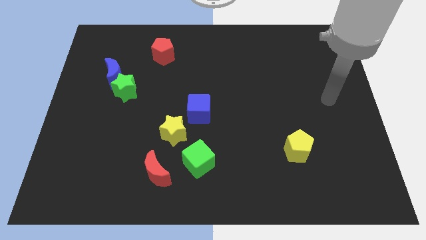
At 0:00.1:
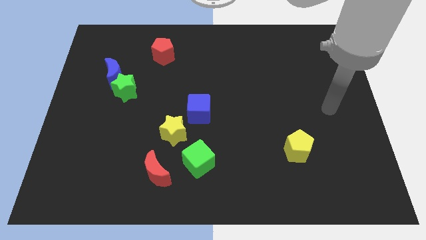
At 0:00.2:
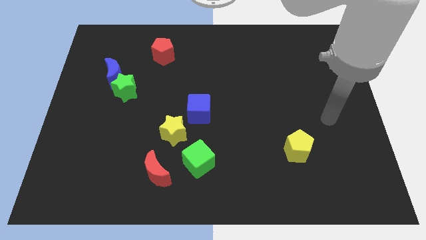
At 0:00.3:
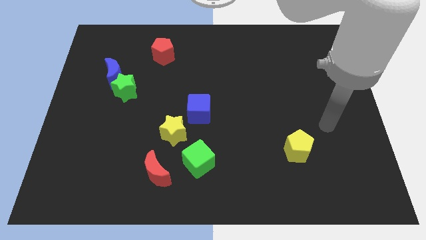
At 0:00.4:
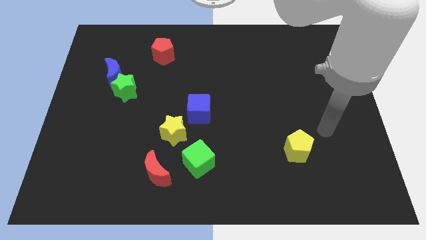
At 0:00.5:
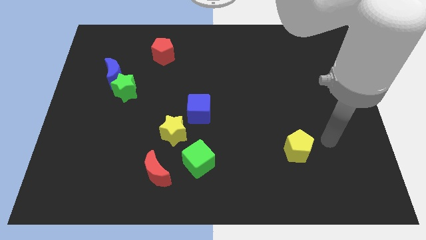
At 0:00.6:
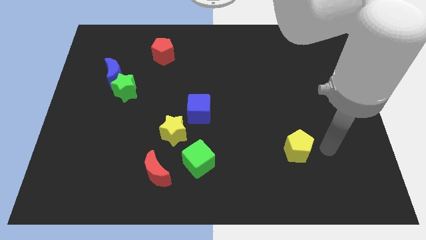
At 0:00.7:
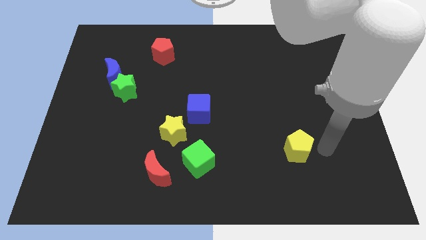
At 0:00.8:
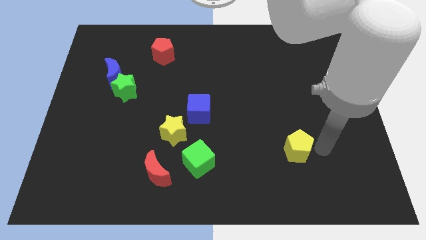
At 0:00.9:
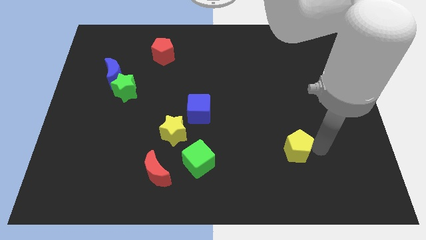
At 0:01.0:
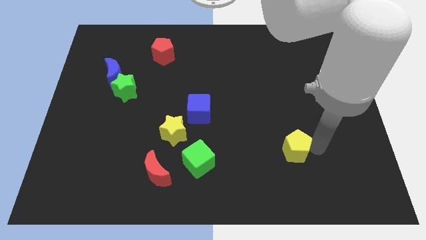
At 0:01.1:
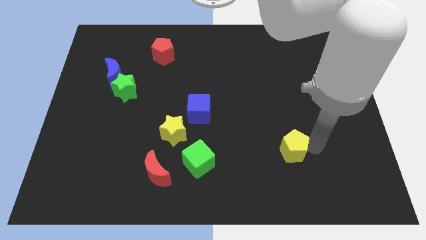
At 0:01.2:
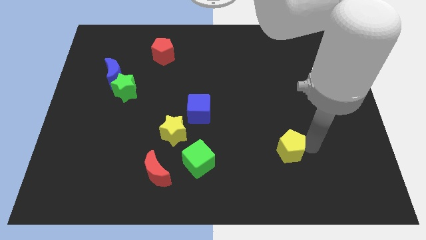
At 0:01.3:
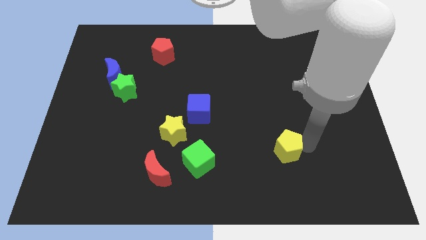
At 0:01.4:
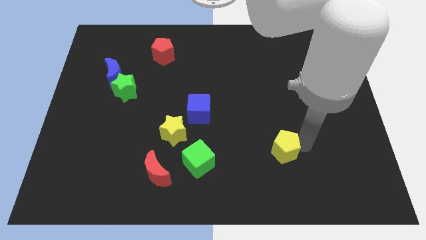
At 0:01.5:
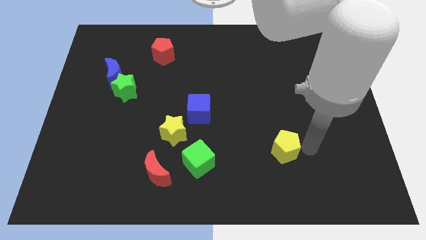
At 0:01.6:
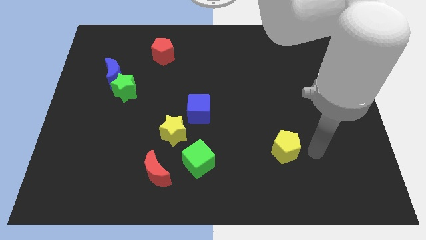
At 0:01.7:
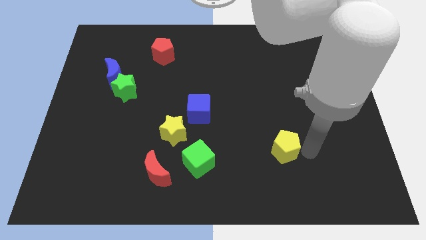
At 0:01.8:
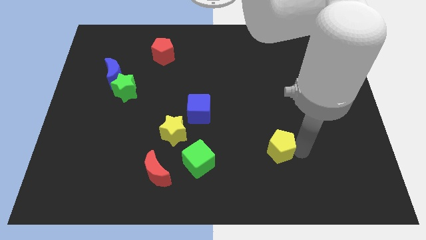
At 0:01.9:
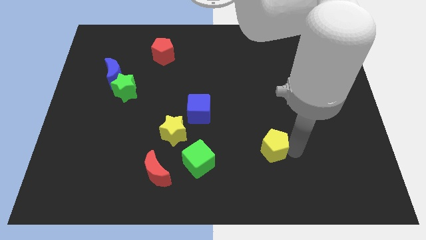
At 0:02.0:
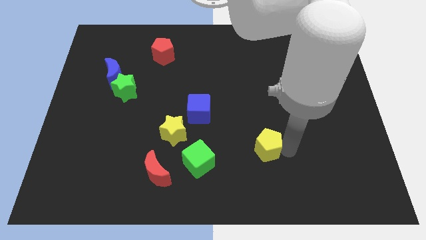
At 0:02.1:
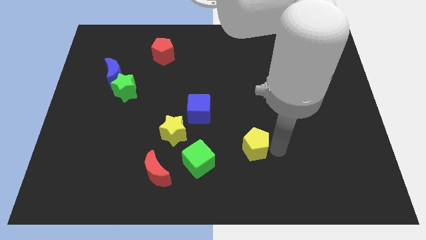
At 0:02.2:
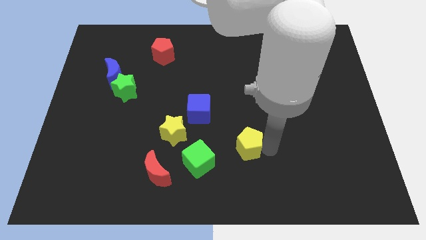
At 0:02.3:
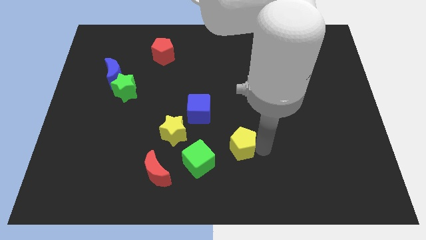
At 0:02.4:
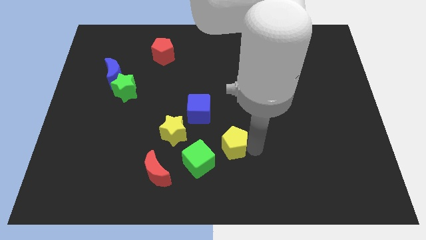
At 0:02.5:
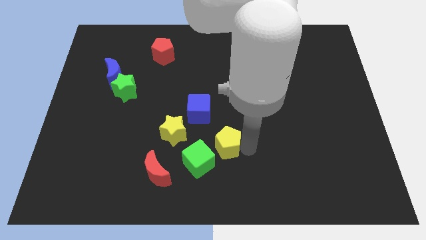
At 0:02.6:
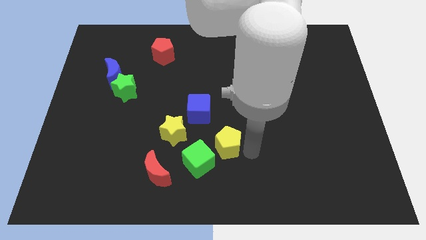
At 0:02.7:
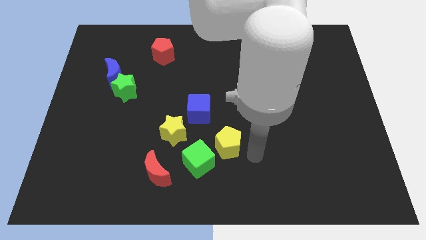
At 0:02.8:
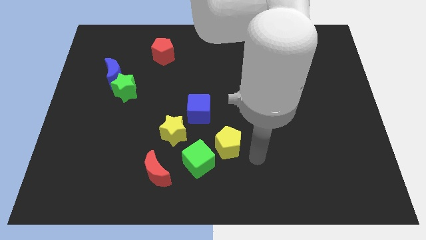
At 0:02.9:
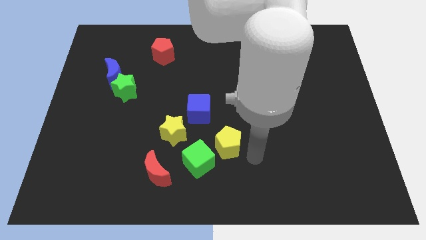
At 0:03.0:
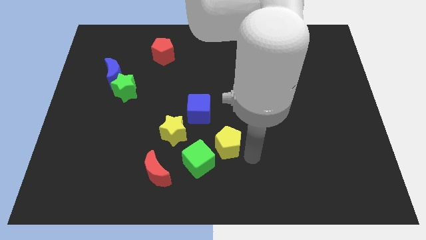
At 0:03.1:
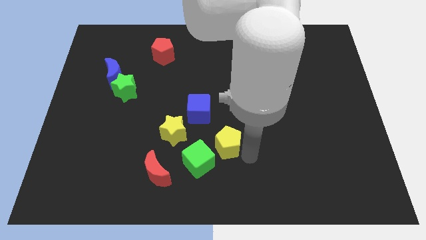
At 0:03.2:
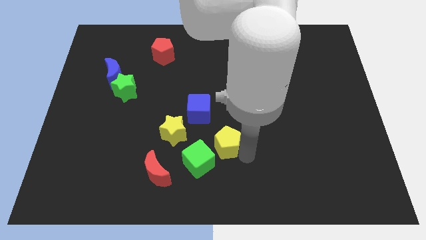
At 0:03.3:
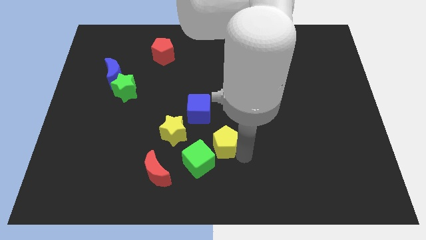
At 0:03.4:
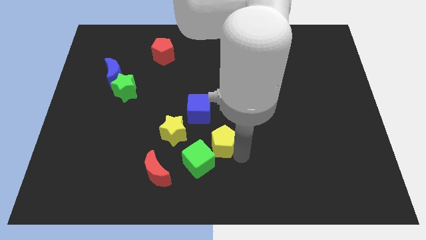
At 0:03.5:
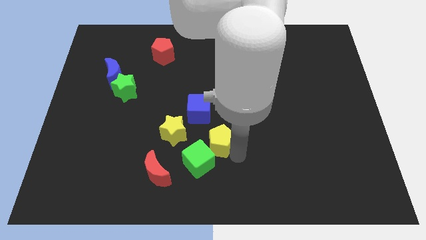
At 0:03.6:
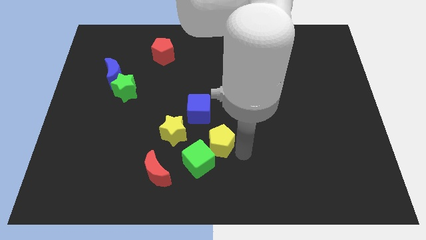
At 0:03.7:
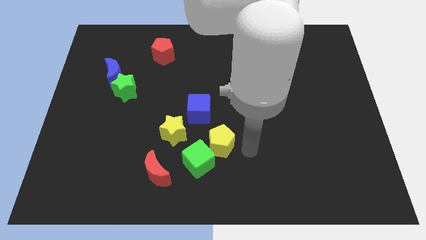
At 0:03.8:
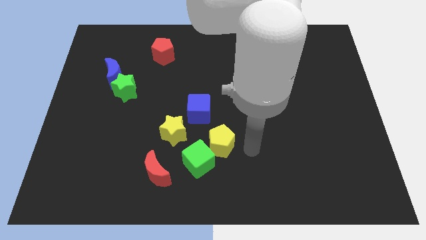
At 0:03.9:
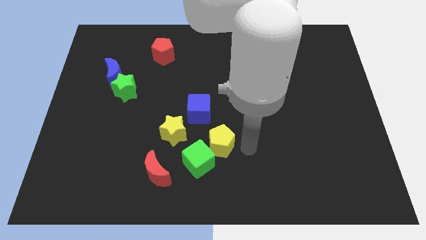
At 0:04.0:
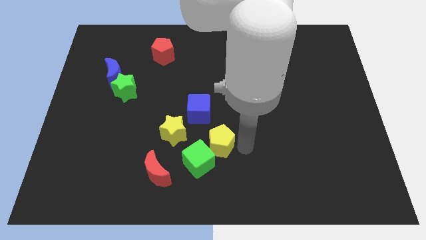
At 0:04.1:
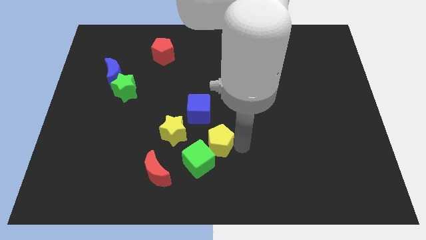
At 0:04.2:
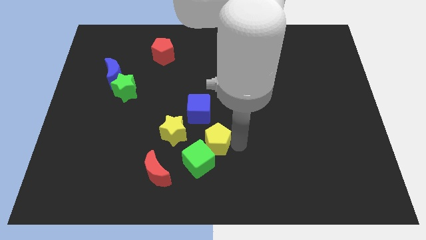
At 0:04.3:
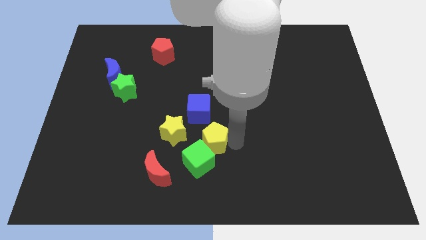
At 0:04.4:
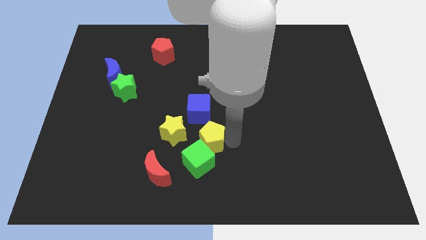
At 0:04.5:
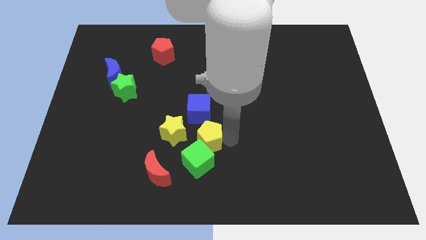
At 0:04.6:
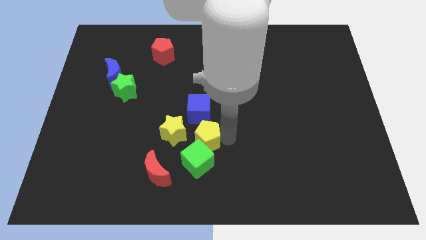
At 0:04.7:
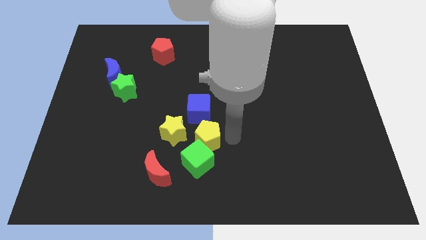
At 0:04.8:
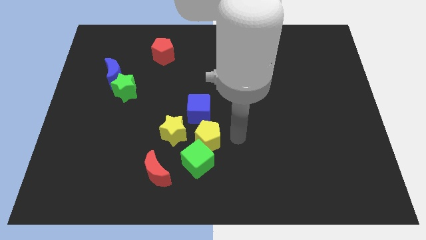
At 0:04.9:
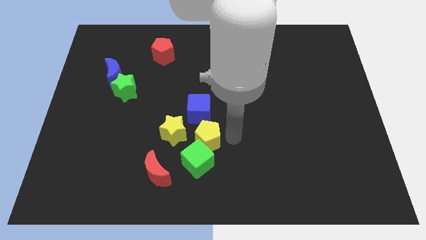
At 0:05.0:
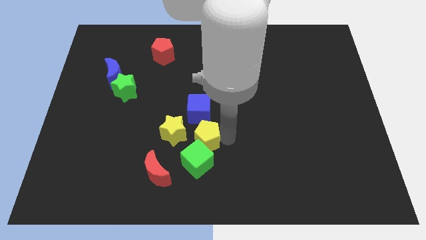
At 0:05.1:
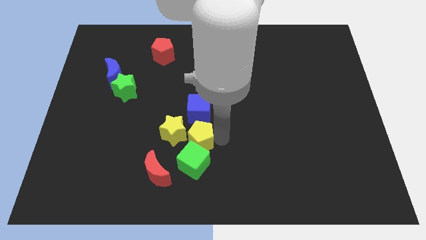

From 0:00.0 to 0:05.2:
push the yellow pentagon to the left

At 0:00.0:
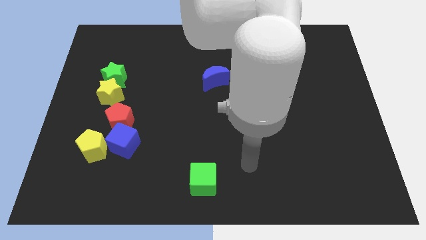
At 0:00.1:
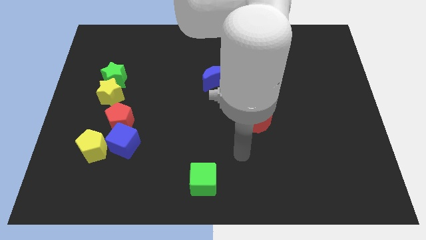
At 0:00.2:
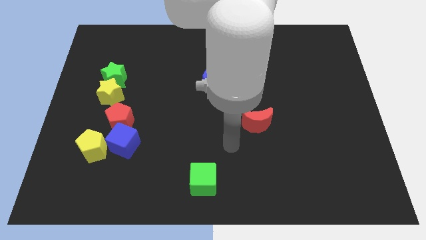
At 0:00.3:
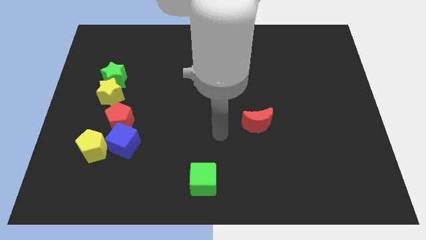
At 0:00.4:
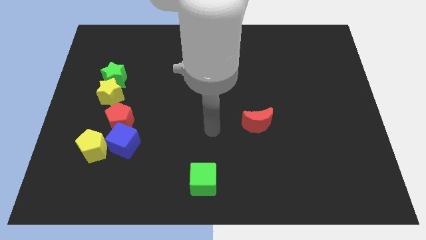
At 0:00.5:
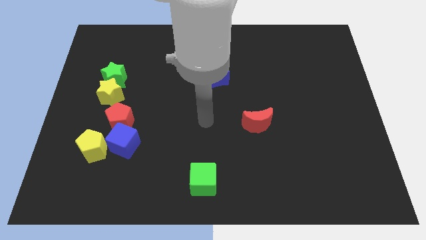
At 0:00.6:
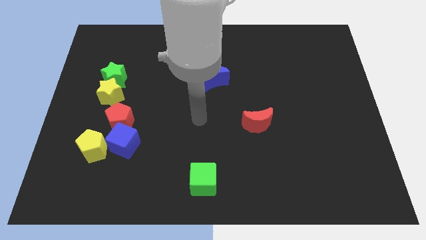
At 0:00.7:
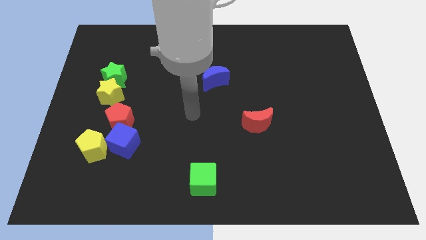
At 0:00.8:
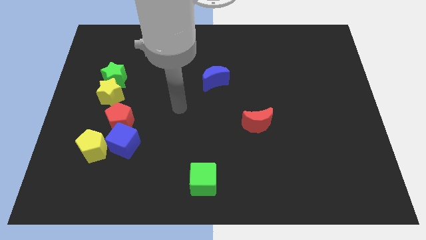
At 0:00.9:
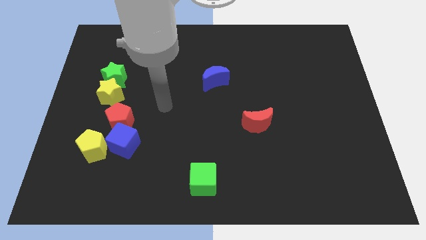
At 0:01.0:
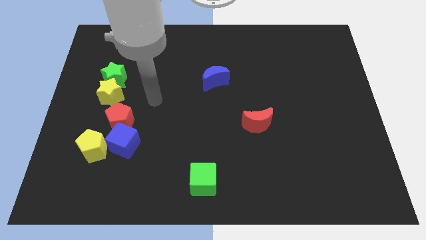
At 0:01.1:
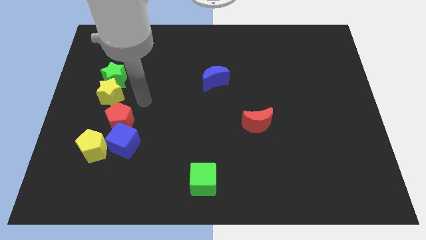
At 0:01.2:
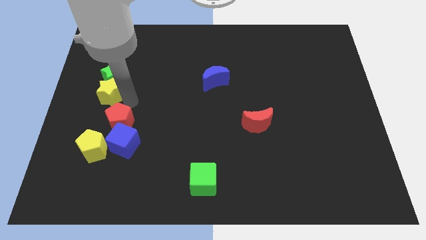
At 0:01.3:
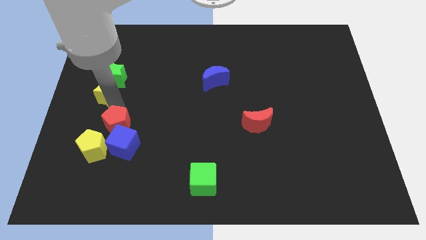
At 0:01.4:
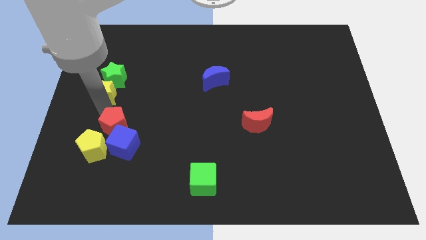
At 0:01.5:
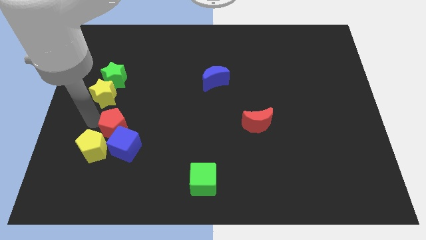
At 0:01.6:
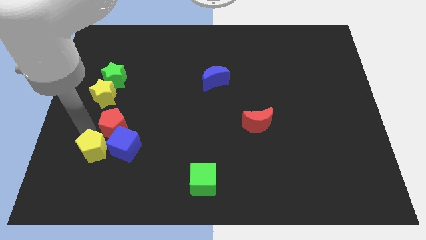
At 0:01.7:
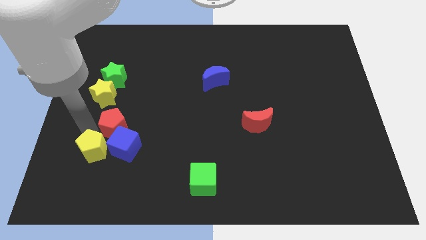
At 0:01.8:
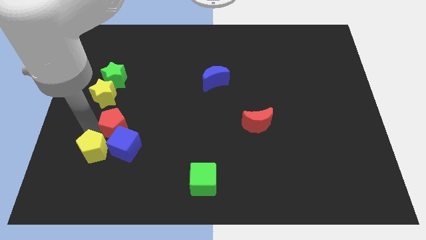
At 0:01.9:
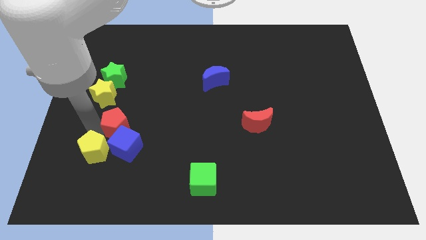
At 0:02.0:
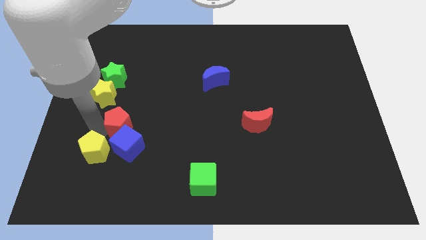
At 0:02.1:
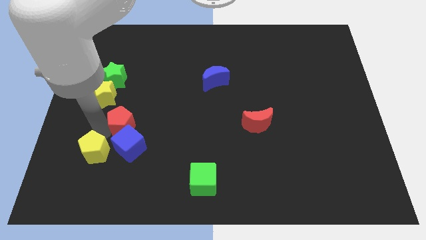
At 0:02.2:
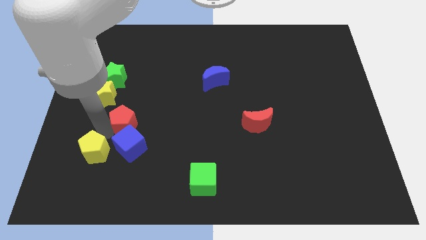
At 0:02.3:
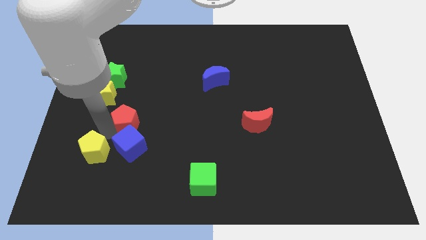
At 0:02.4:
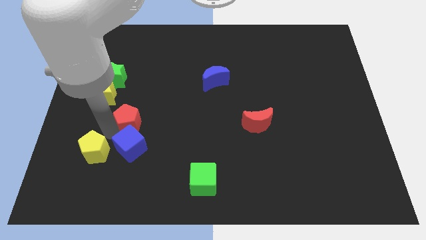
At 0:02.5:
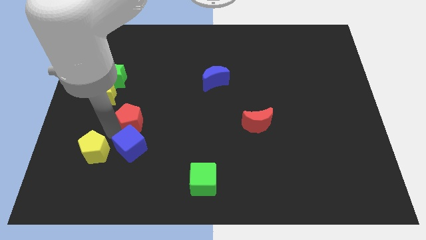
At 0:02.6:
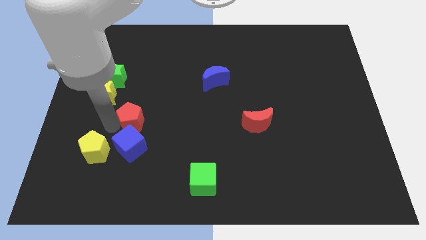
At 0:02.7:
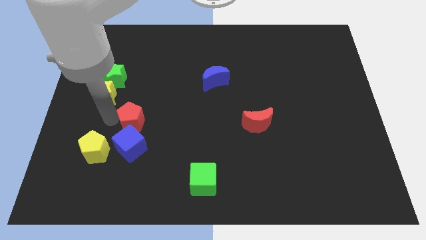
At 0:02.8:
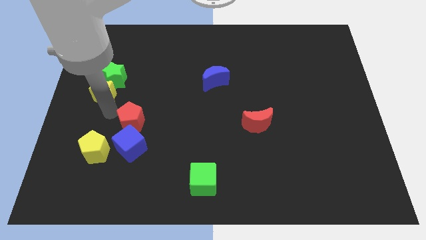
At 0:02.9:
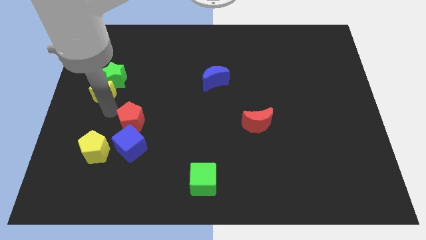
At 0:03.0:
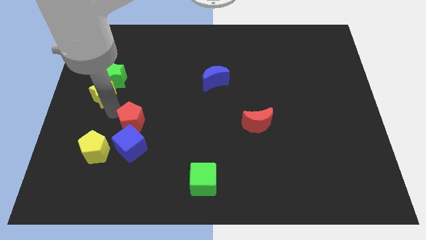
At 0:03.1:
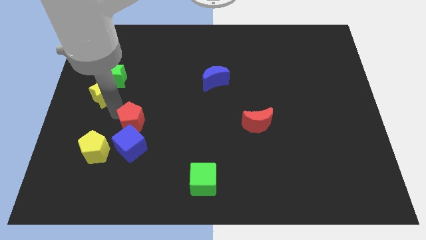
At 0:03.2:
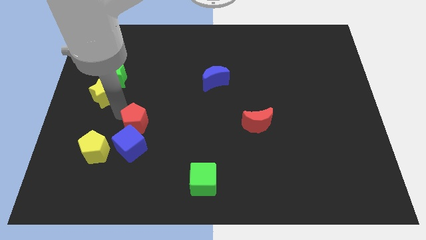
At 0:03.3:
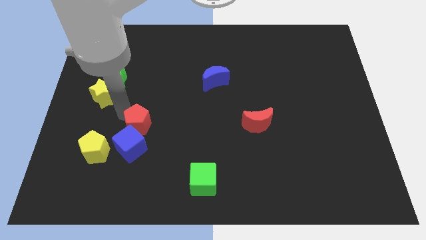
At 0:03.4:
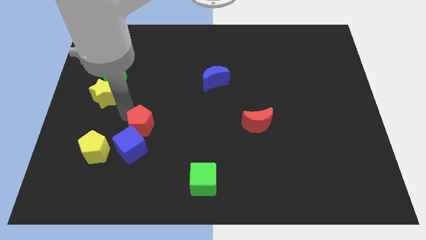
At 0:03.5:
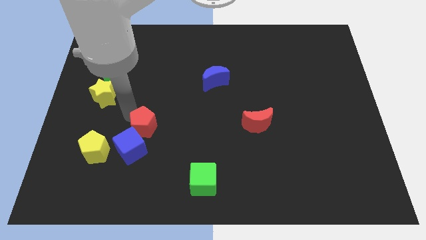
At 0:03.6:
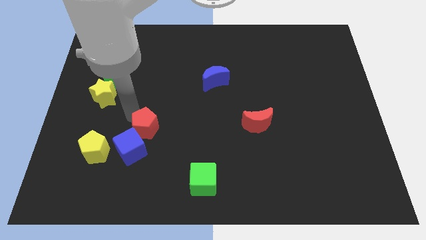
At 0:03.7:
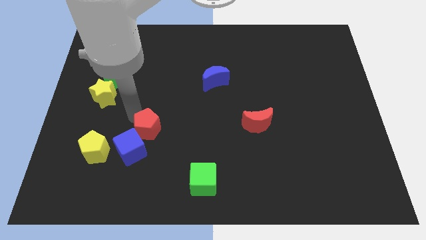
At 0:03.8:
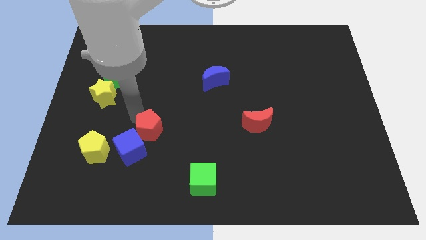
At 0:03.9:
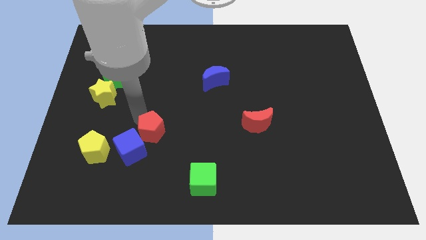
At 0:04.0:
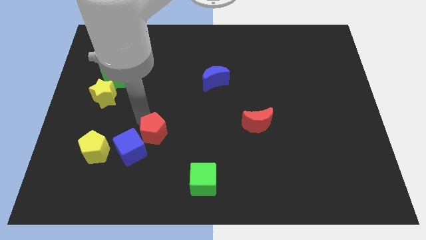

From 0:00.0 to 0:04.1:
slightly slide the red pentagon downwards and then right
